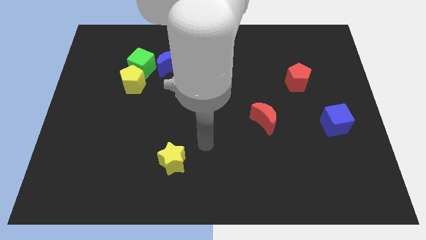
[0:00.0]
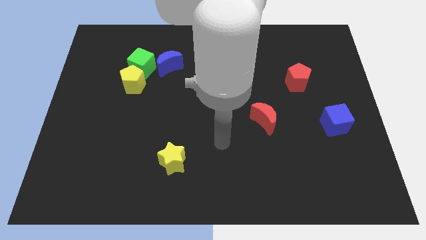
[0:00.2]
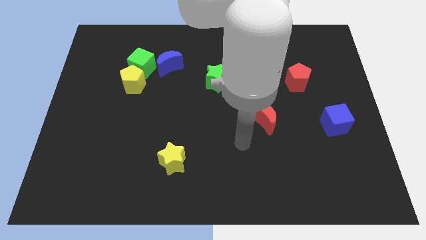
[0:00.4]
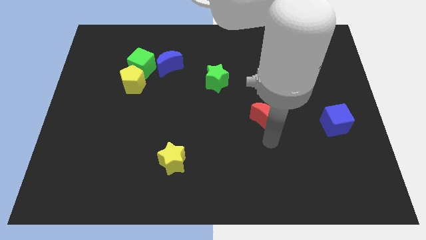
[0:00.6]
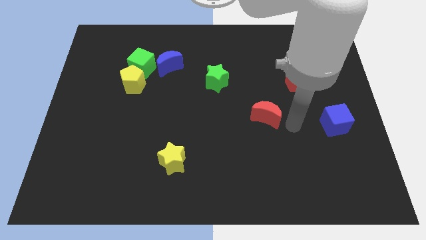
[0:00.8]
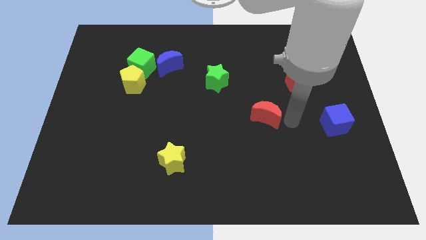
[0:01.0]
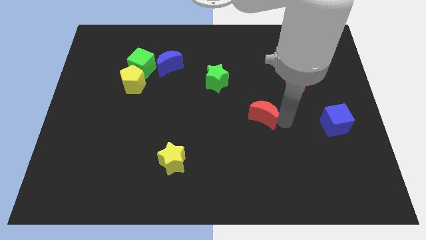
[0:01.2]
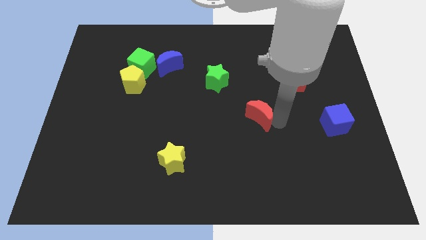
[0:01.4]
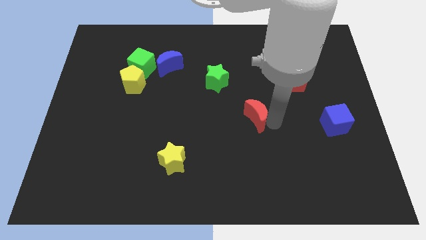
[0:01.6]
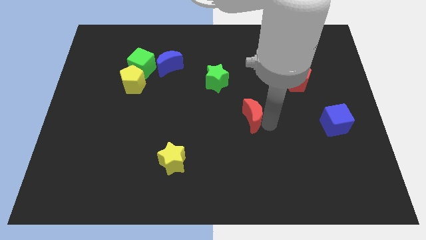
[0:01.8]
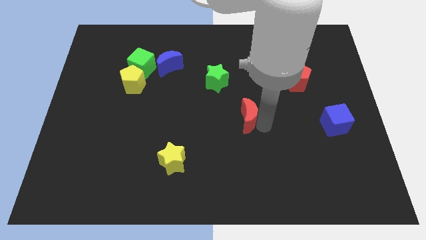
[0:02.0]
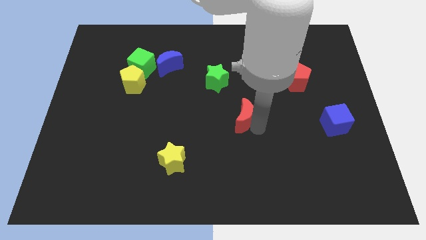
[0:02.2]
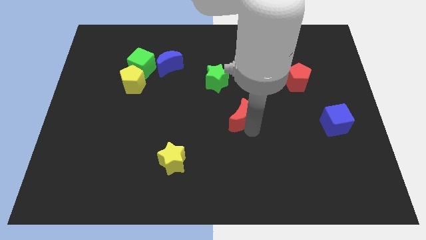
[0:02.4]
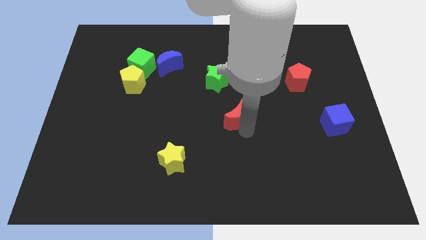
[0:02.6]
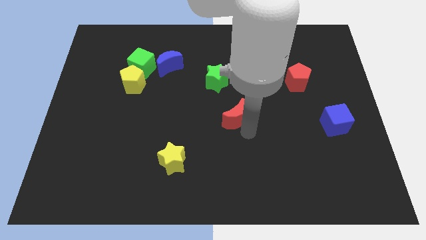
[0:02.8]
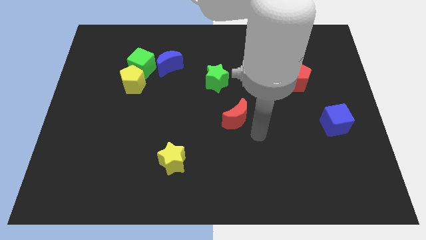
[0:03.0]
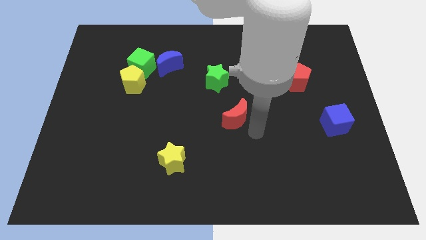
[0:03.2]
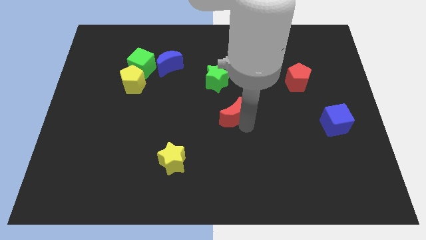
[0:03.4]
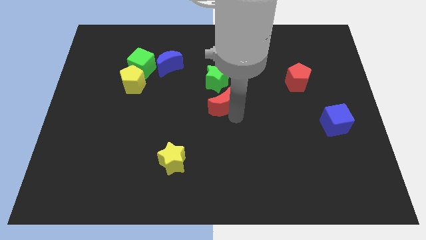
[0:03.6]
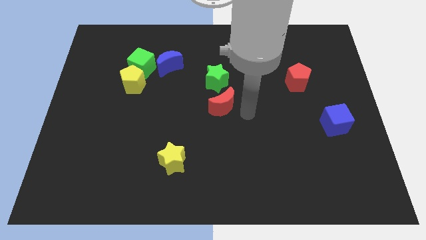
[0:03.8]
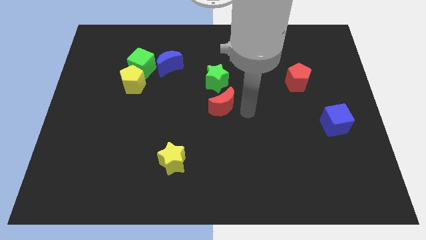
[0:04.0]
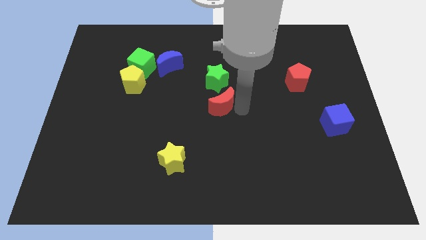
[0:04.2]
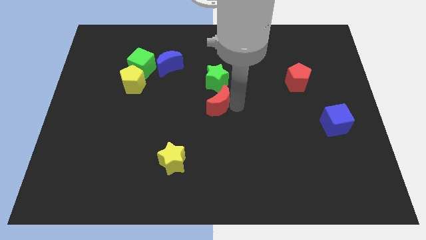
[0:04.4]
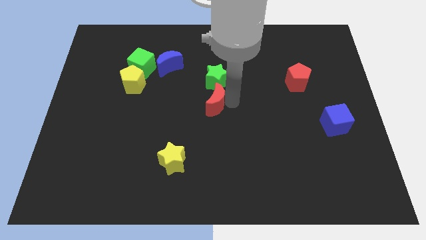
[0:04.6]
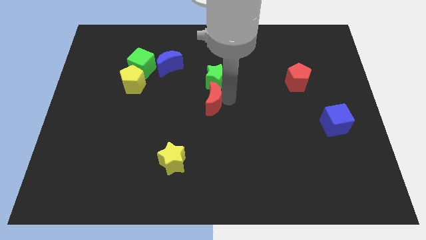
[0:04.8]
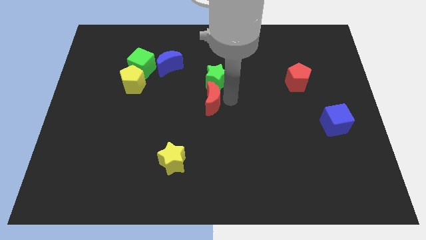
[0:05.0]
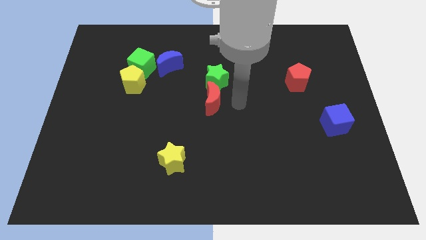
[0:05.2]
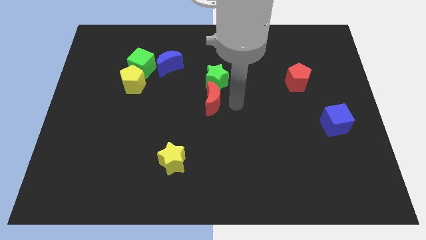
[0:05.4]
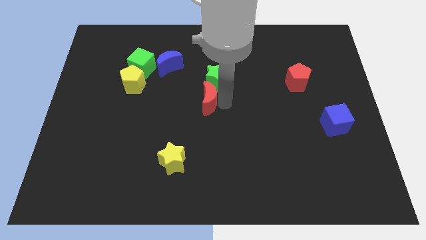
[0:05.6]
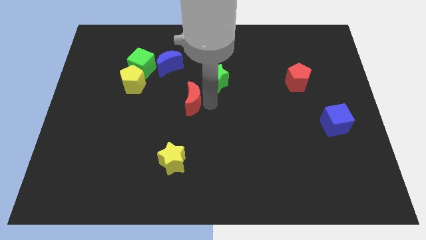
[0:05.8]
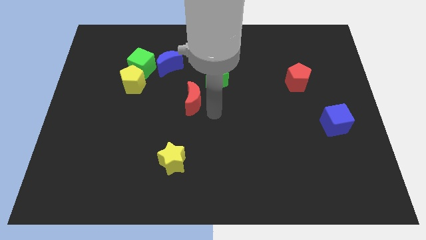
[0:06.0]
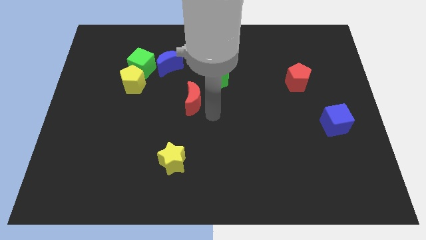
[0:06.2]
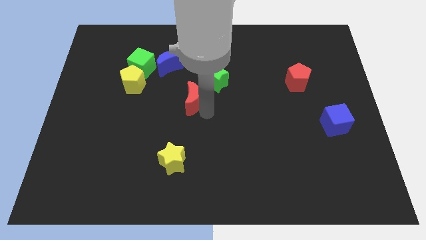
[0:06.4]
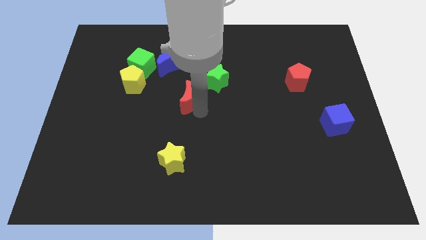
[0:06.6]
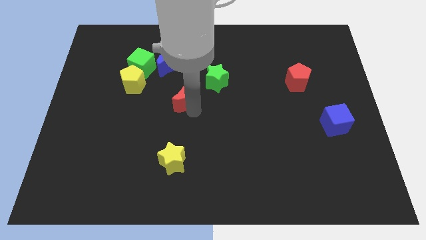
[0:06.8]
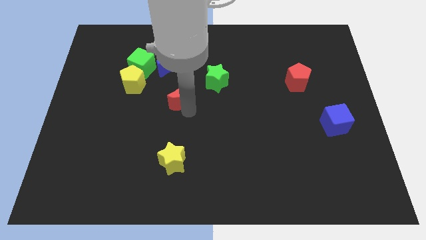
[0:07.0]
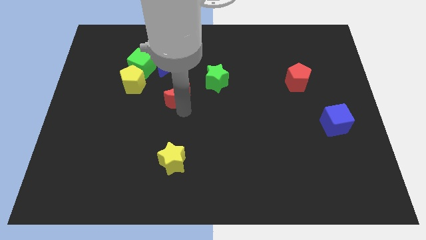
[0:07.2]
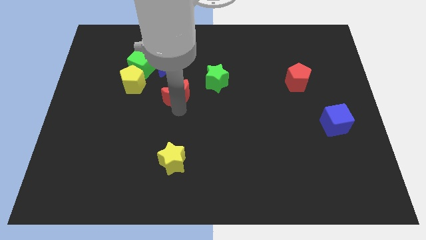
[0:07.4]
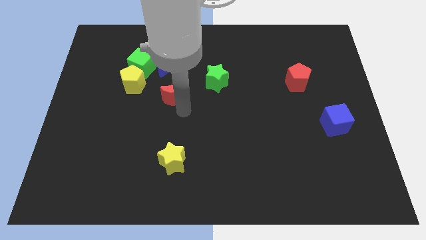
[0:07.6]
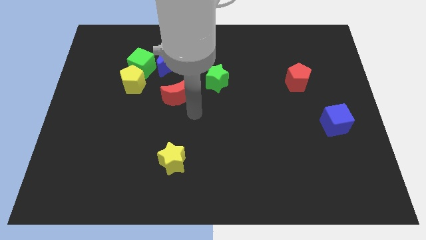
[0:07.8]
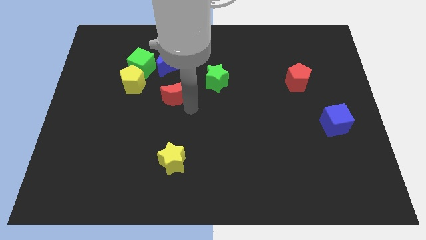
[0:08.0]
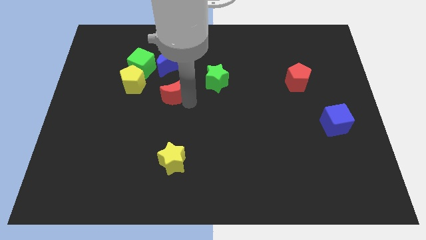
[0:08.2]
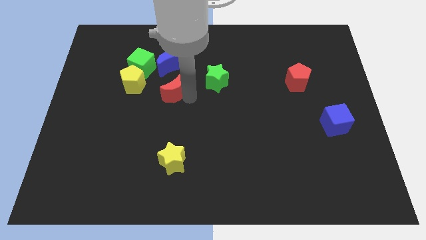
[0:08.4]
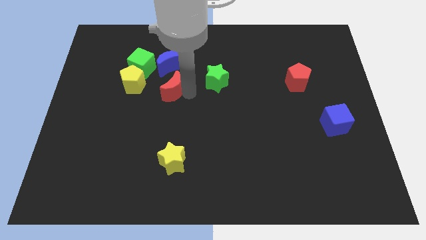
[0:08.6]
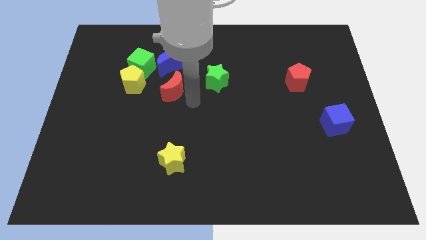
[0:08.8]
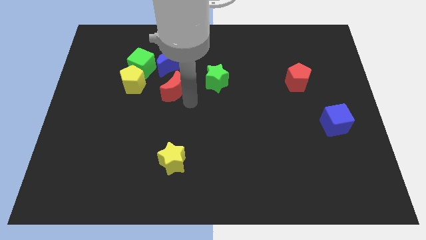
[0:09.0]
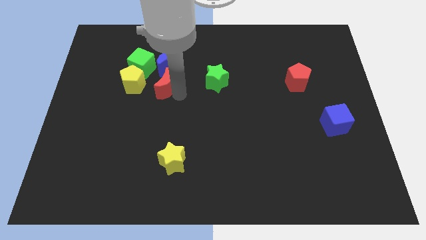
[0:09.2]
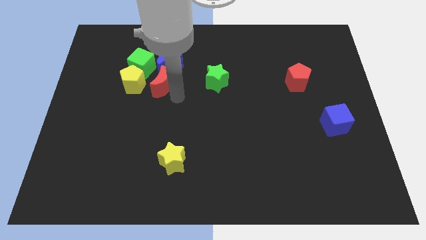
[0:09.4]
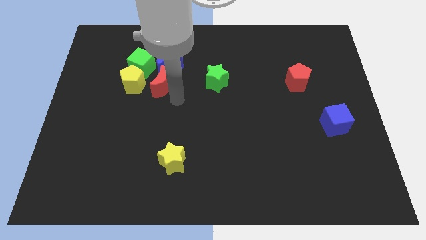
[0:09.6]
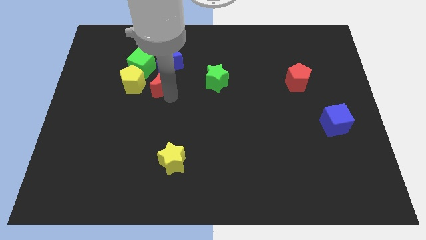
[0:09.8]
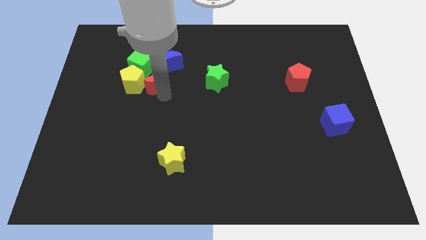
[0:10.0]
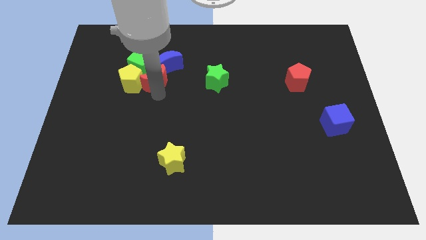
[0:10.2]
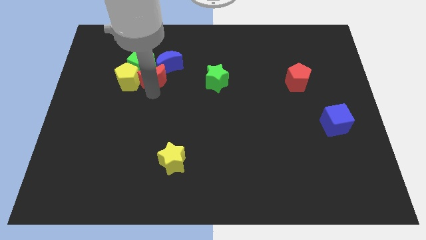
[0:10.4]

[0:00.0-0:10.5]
push the red moon to the green cube

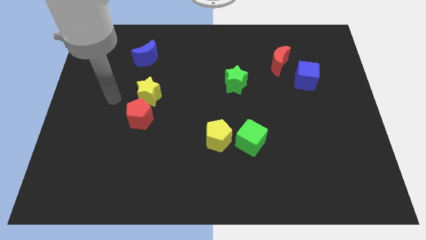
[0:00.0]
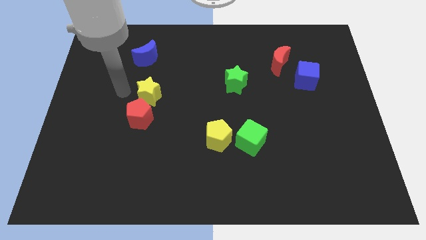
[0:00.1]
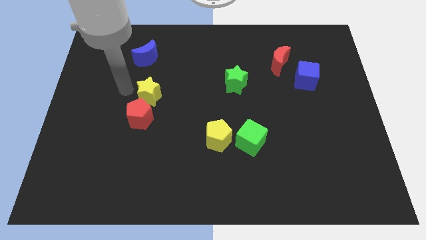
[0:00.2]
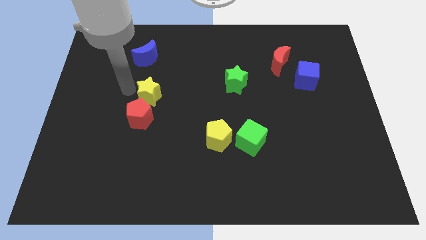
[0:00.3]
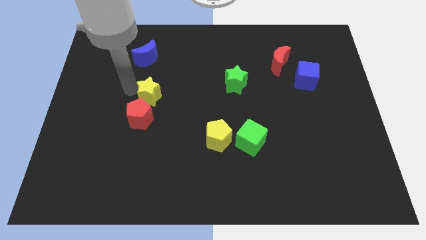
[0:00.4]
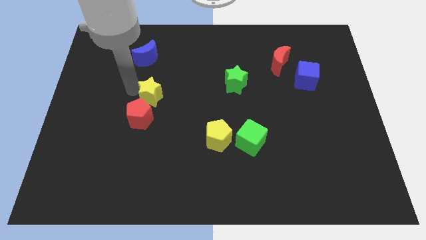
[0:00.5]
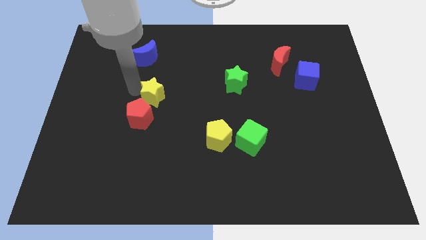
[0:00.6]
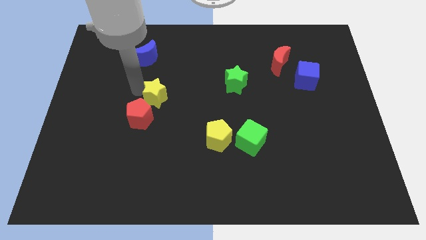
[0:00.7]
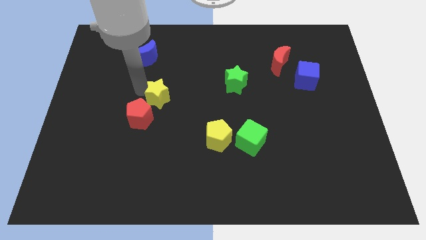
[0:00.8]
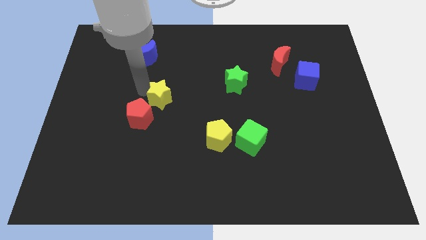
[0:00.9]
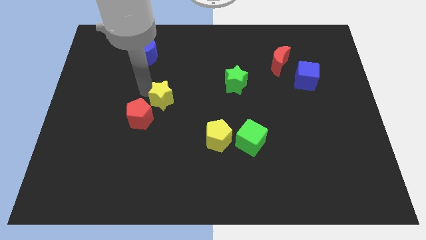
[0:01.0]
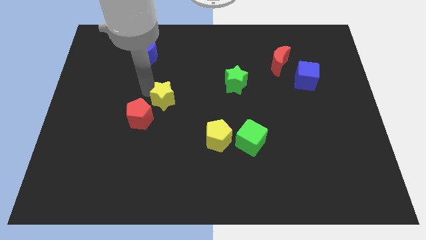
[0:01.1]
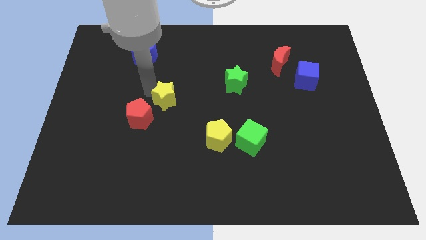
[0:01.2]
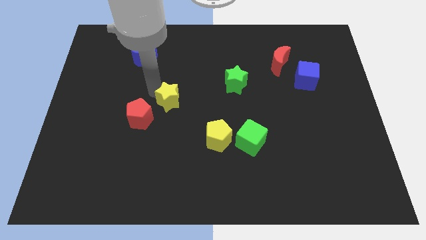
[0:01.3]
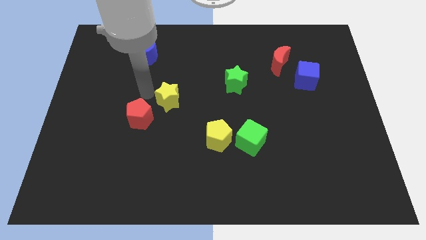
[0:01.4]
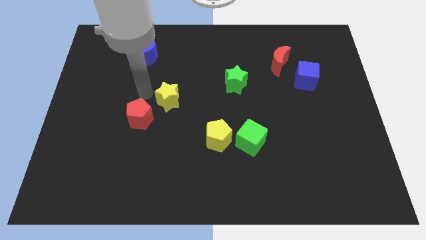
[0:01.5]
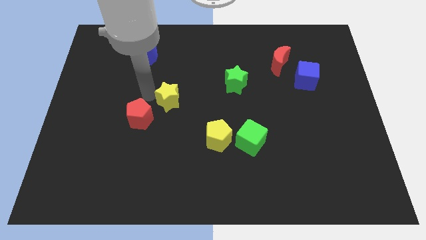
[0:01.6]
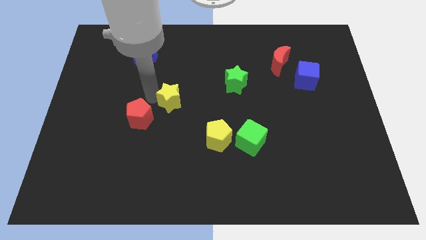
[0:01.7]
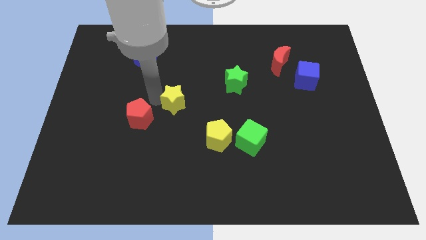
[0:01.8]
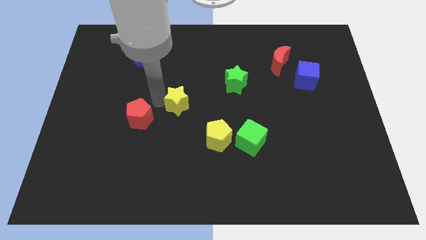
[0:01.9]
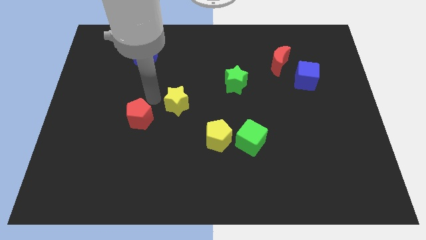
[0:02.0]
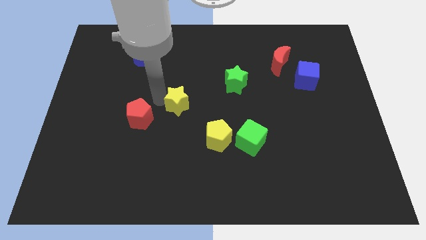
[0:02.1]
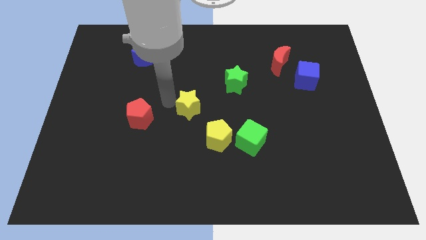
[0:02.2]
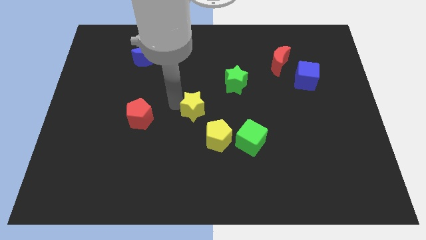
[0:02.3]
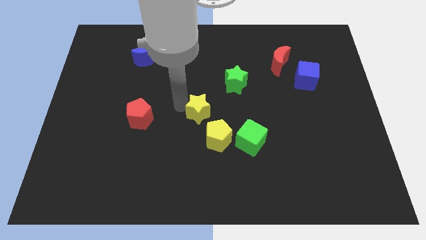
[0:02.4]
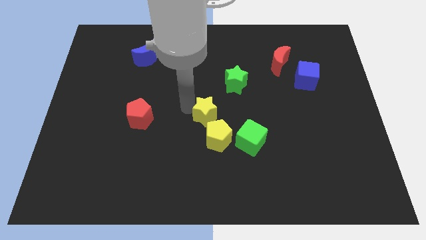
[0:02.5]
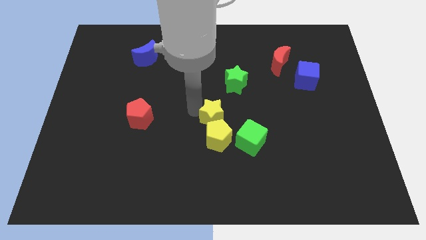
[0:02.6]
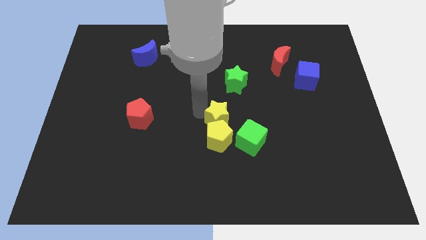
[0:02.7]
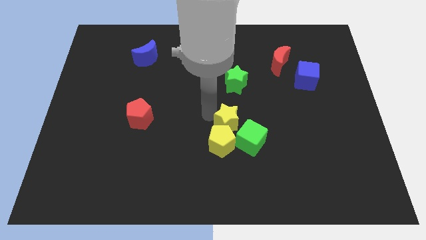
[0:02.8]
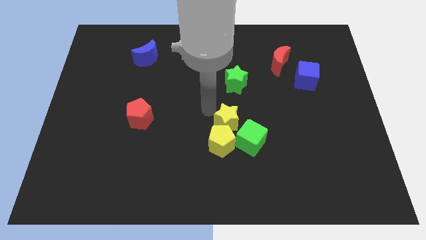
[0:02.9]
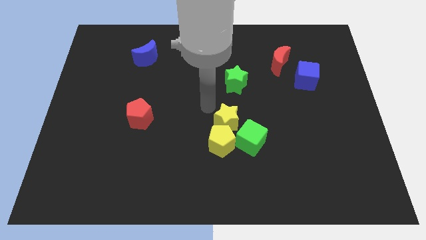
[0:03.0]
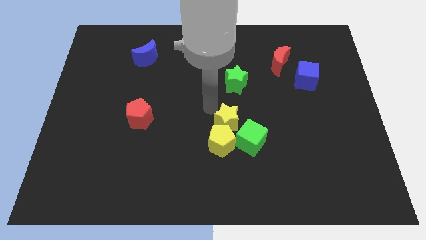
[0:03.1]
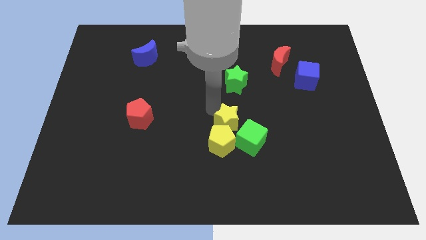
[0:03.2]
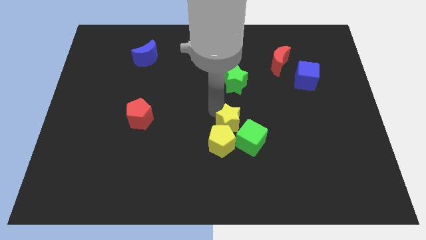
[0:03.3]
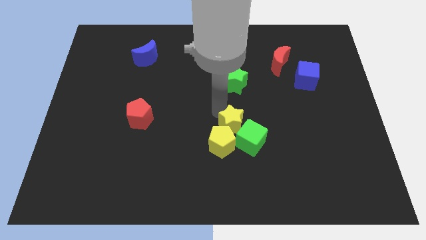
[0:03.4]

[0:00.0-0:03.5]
slide the yellow star towards the green cube
